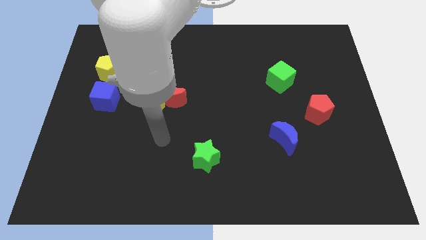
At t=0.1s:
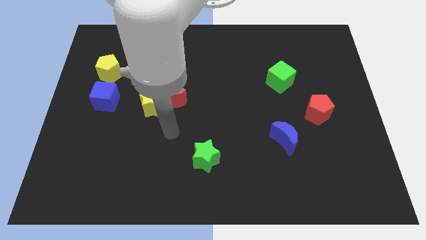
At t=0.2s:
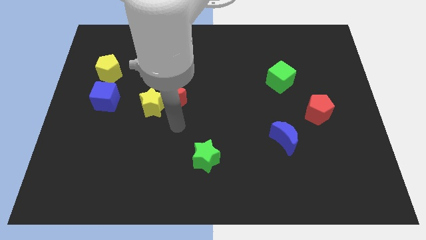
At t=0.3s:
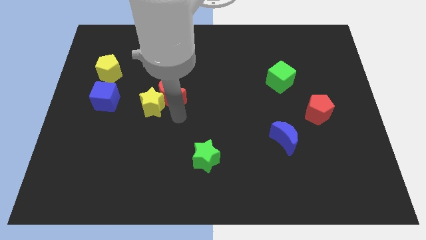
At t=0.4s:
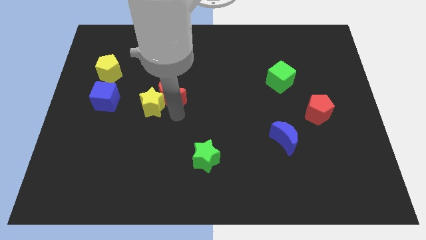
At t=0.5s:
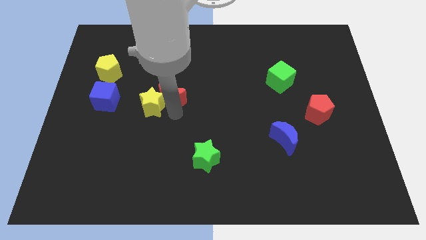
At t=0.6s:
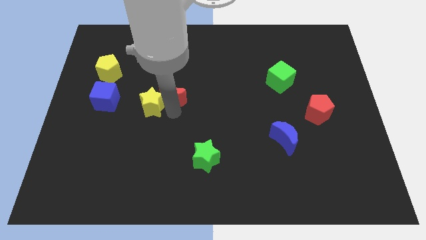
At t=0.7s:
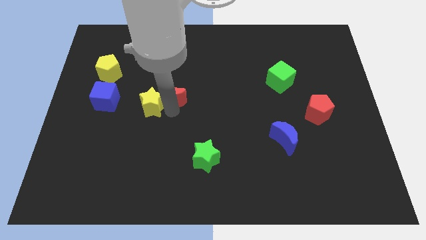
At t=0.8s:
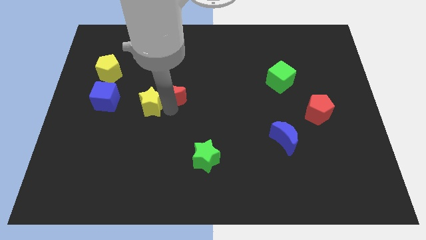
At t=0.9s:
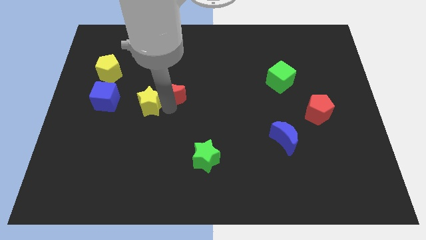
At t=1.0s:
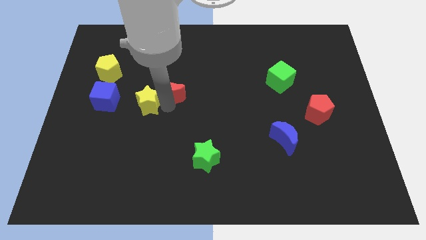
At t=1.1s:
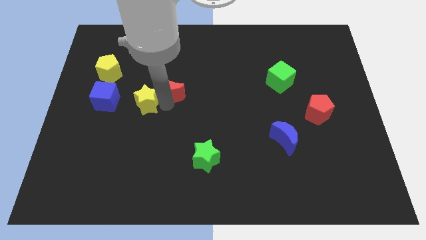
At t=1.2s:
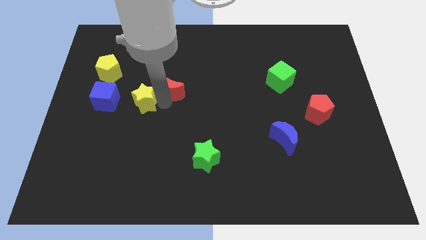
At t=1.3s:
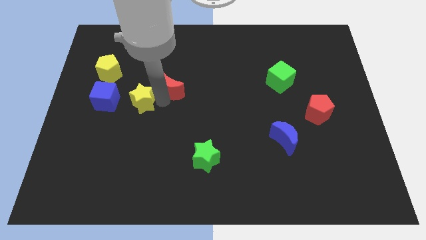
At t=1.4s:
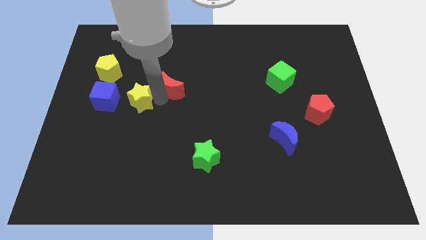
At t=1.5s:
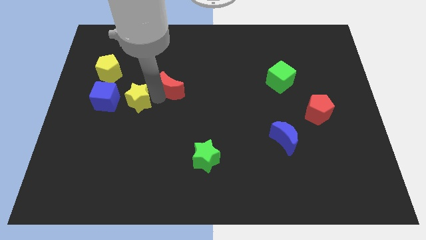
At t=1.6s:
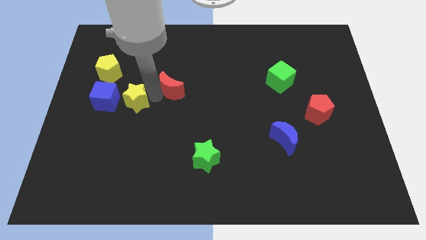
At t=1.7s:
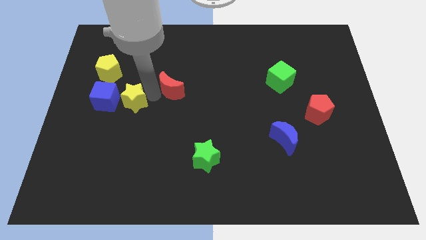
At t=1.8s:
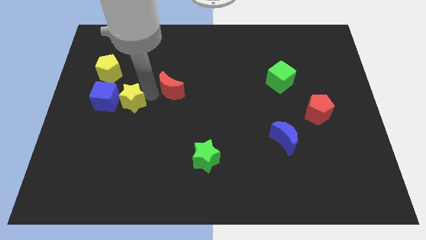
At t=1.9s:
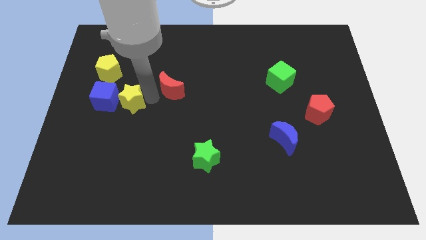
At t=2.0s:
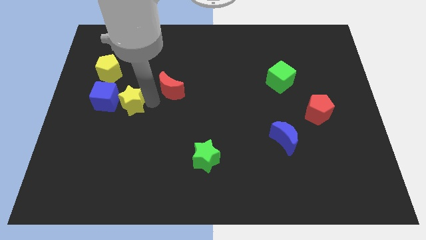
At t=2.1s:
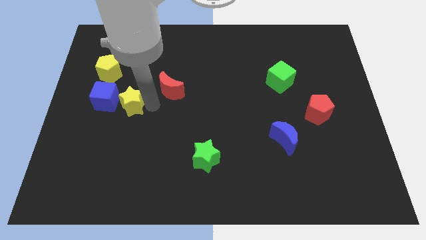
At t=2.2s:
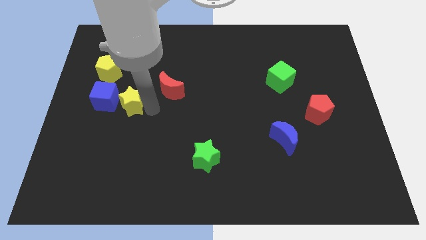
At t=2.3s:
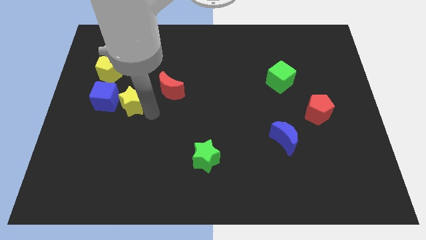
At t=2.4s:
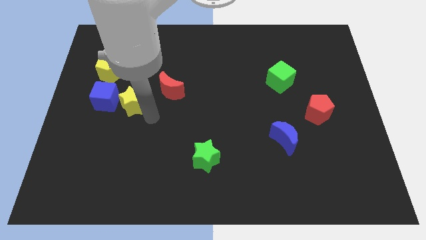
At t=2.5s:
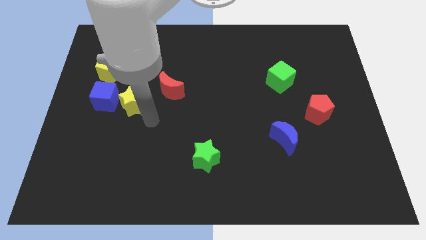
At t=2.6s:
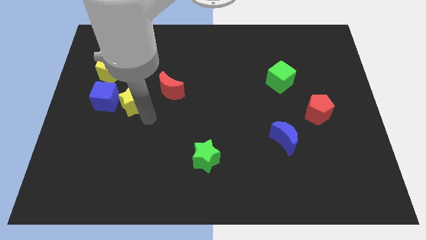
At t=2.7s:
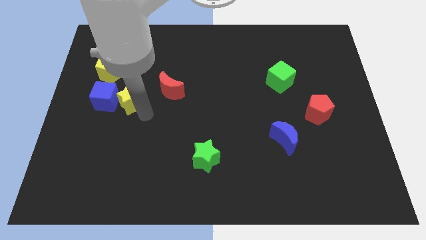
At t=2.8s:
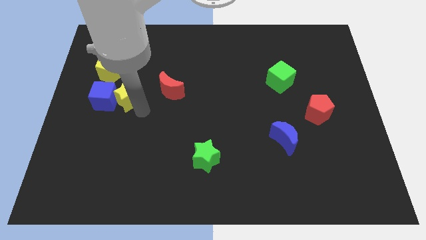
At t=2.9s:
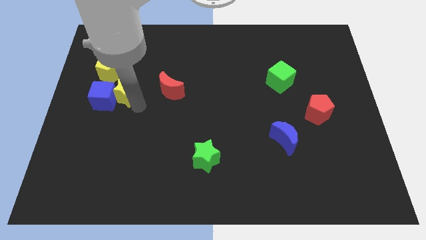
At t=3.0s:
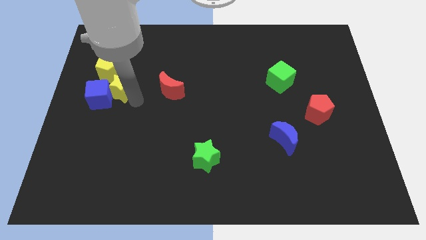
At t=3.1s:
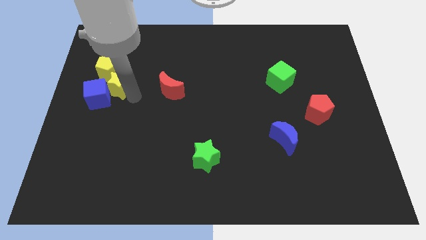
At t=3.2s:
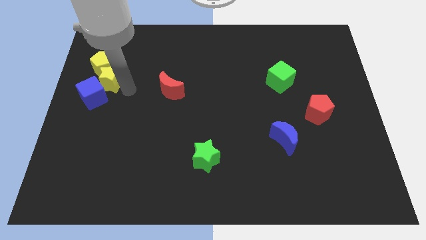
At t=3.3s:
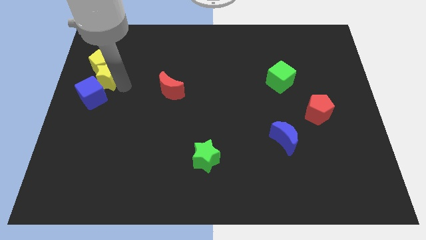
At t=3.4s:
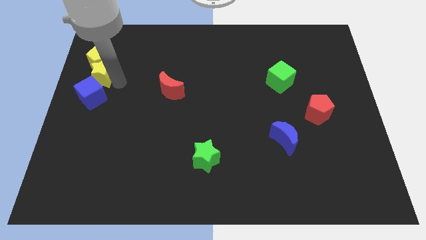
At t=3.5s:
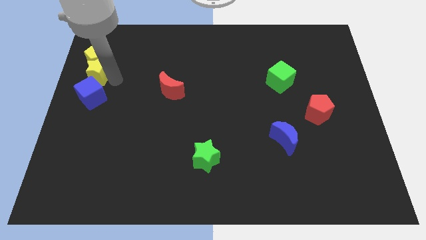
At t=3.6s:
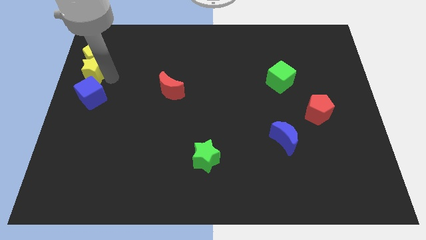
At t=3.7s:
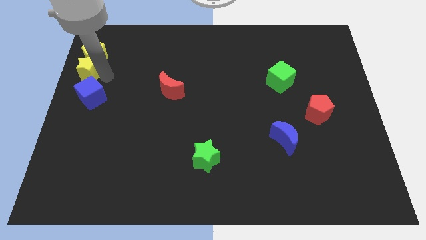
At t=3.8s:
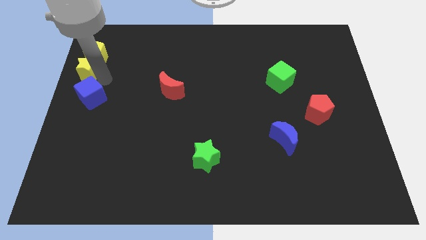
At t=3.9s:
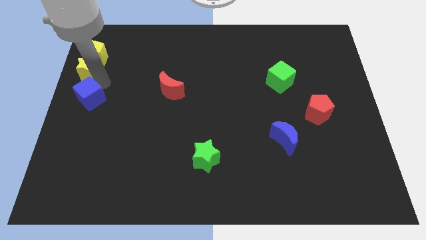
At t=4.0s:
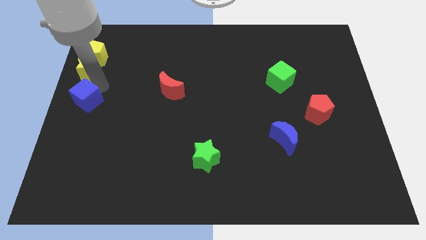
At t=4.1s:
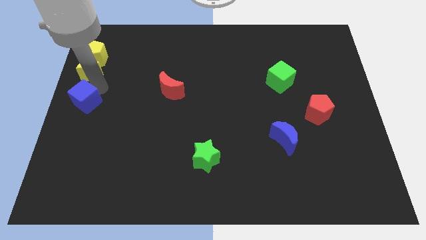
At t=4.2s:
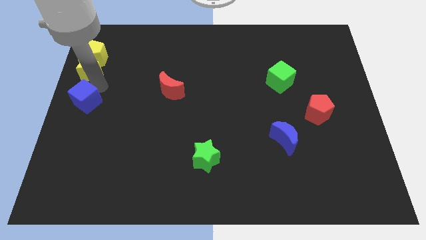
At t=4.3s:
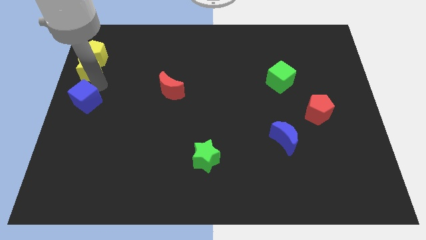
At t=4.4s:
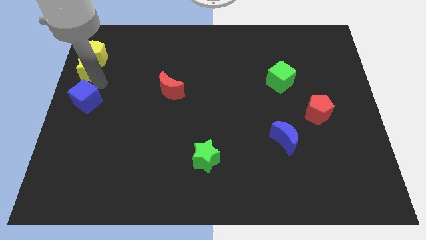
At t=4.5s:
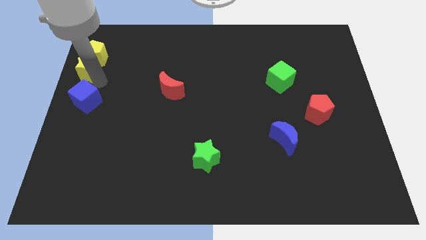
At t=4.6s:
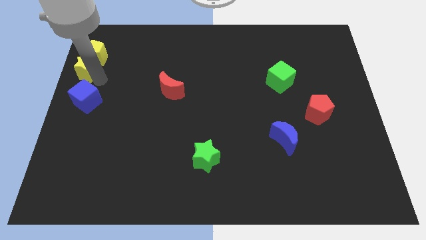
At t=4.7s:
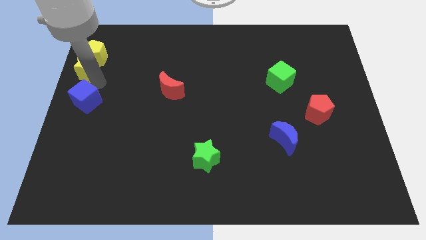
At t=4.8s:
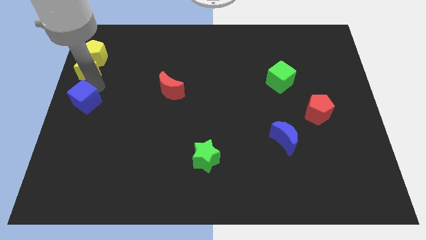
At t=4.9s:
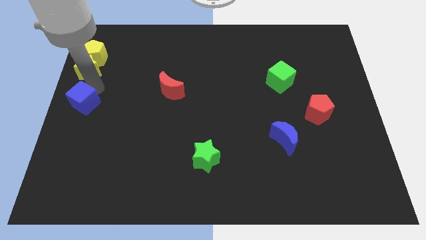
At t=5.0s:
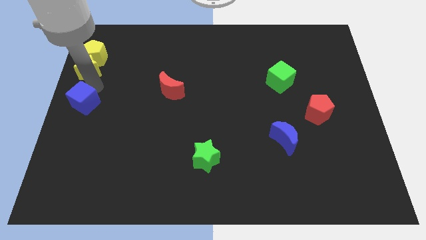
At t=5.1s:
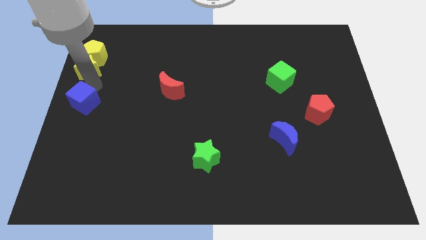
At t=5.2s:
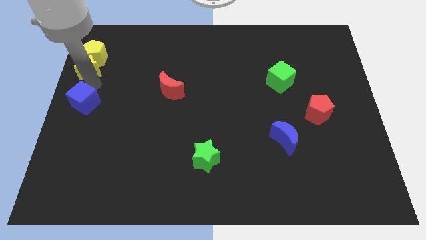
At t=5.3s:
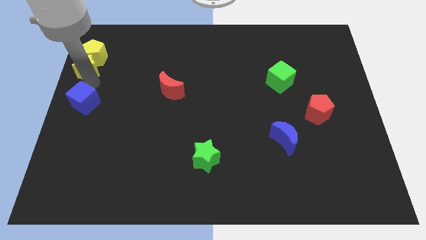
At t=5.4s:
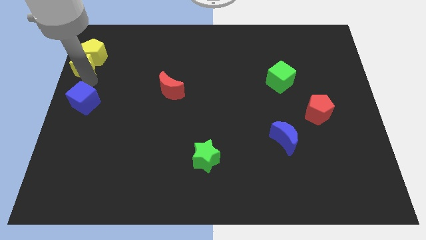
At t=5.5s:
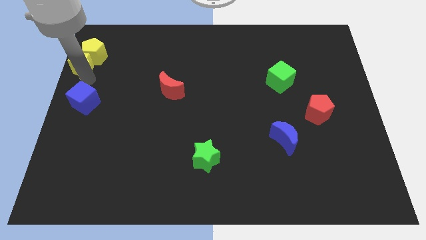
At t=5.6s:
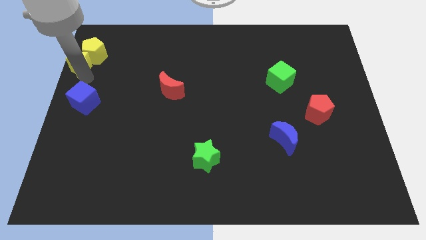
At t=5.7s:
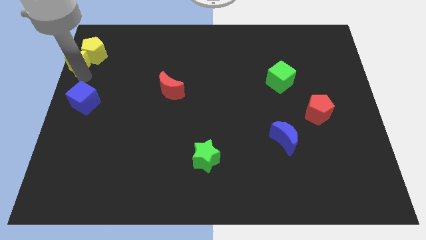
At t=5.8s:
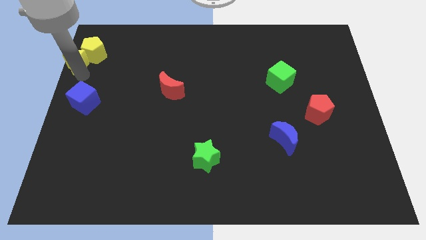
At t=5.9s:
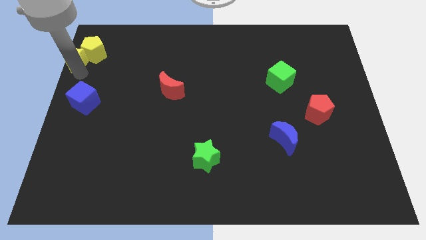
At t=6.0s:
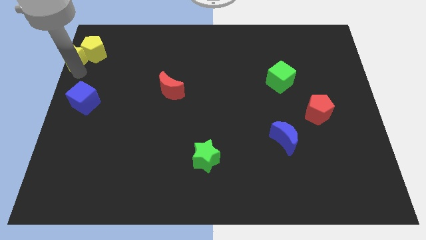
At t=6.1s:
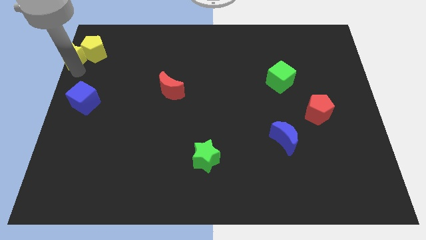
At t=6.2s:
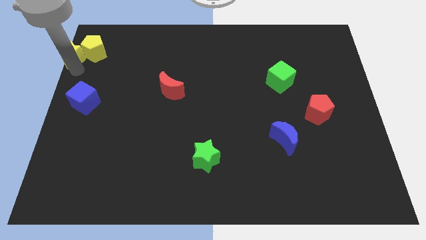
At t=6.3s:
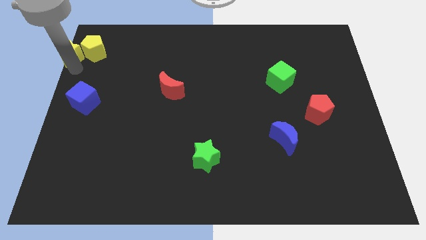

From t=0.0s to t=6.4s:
slide the yellow star to the top left corner
